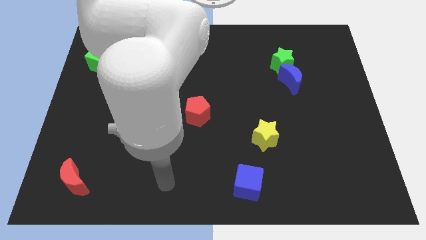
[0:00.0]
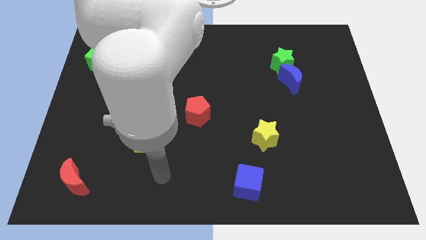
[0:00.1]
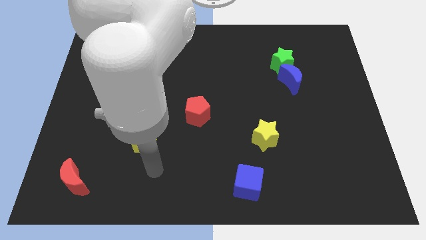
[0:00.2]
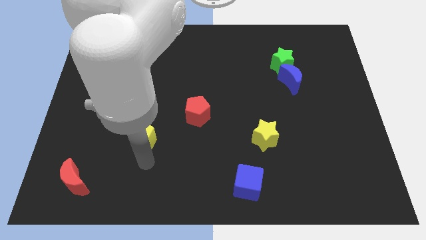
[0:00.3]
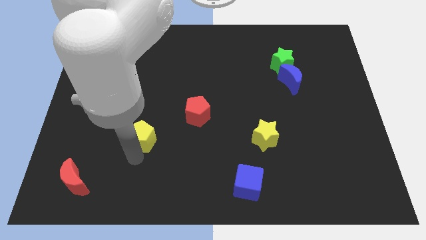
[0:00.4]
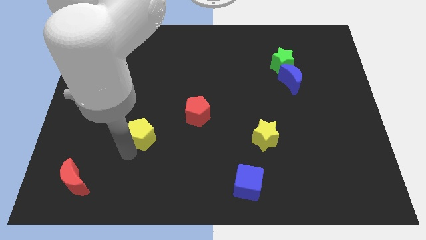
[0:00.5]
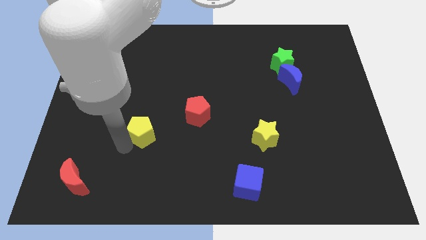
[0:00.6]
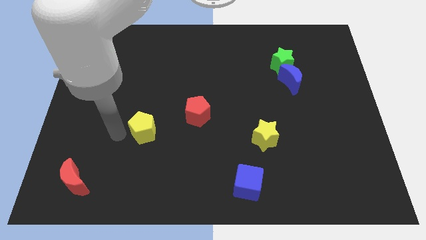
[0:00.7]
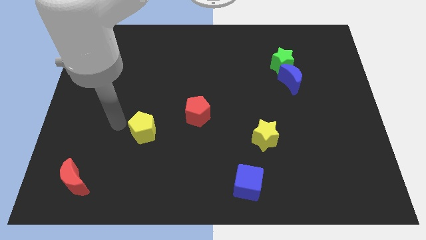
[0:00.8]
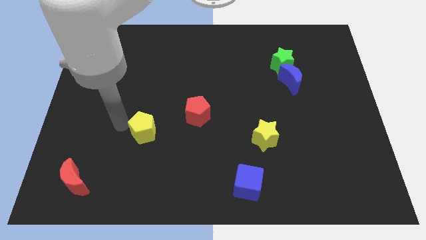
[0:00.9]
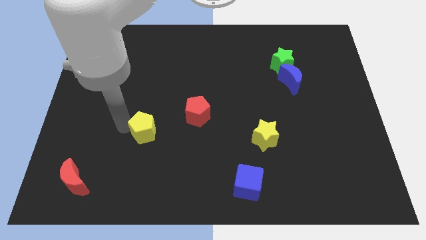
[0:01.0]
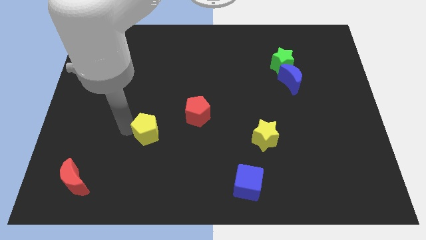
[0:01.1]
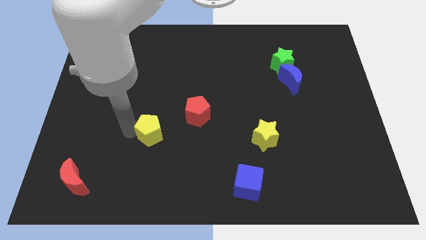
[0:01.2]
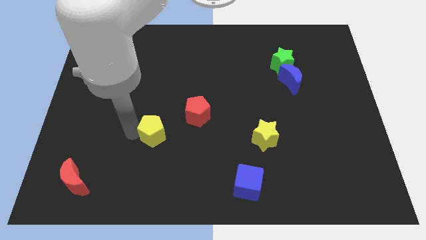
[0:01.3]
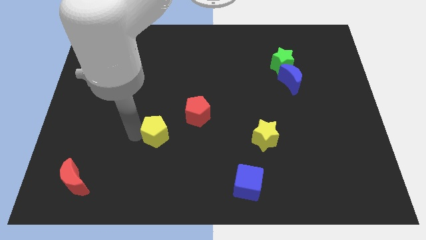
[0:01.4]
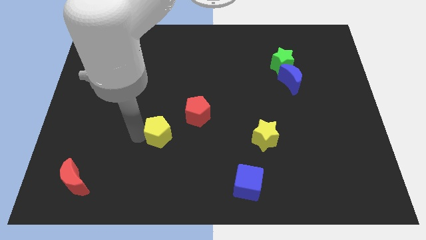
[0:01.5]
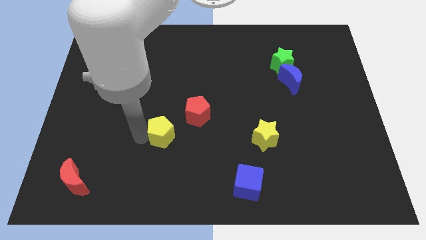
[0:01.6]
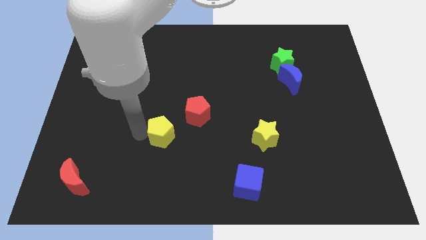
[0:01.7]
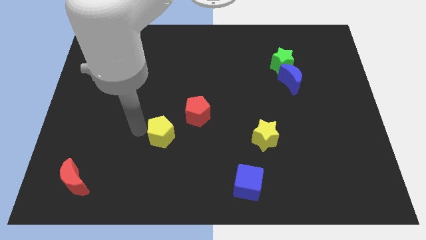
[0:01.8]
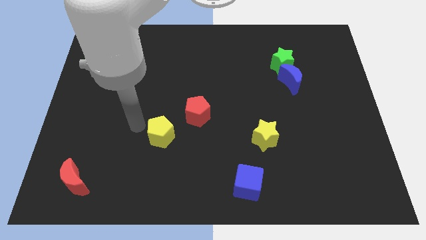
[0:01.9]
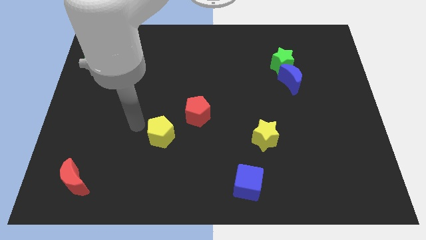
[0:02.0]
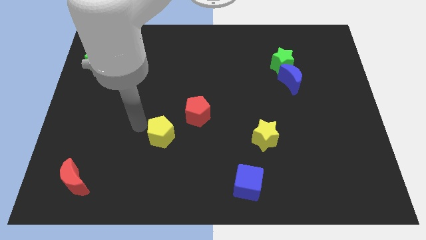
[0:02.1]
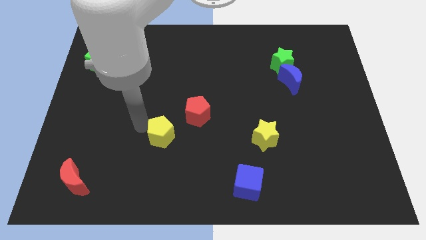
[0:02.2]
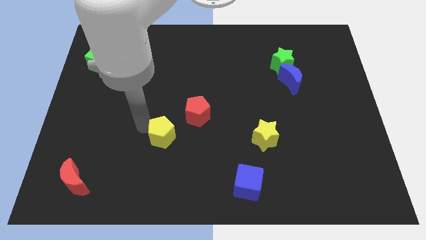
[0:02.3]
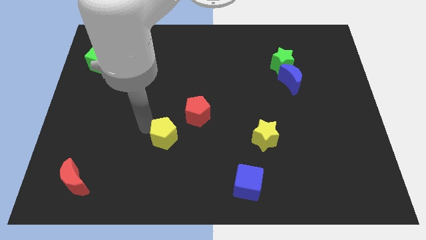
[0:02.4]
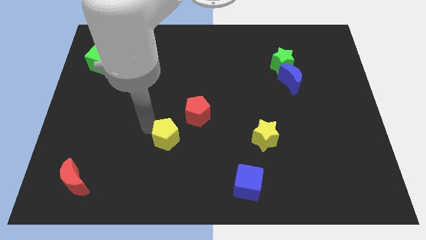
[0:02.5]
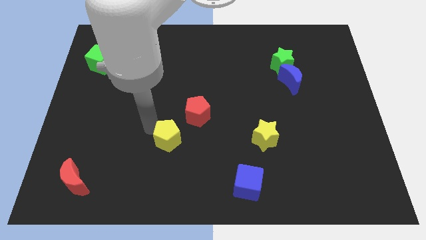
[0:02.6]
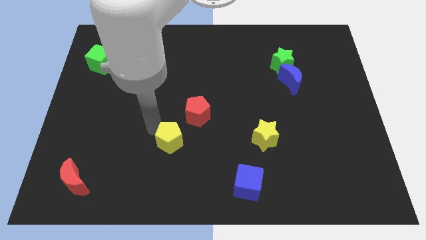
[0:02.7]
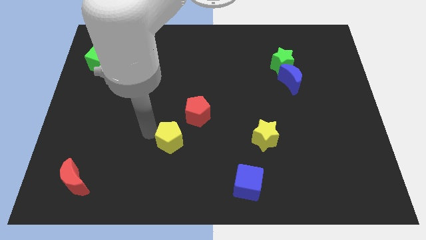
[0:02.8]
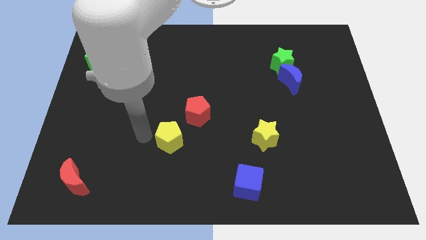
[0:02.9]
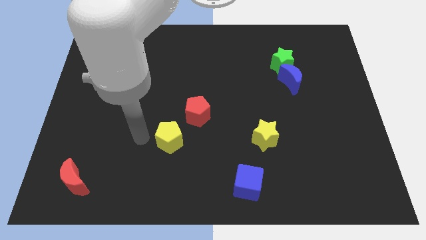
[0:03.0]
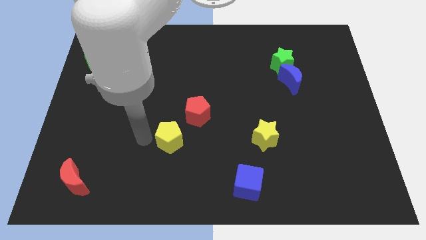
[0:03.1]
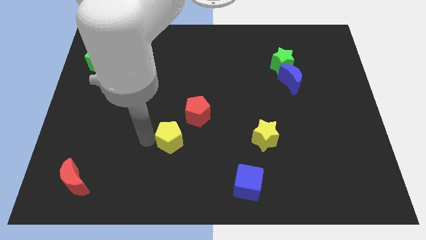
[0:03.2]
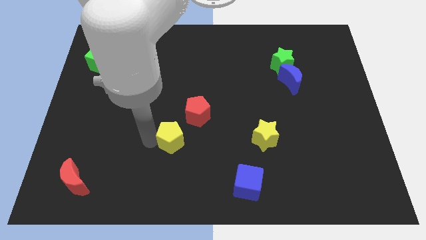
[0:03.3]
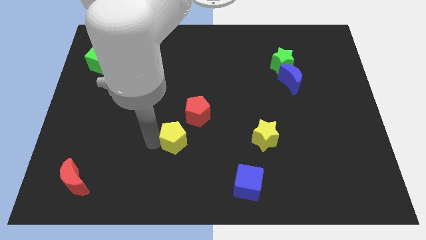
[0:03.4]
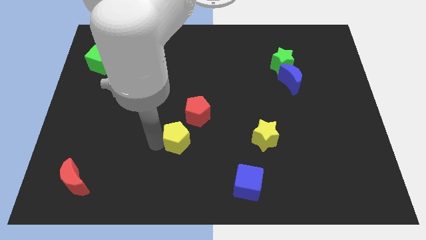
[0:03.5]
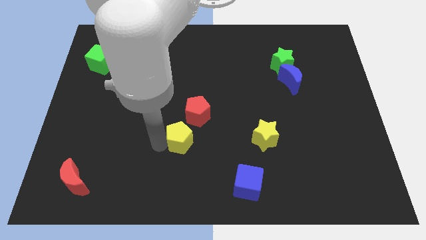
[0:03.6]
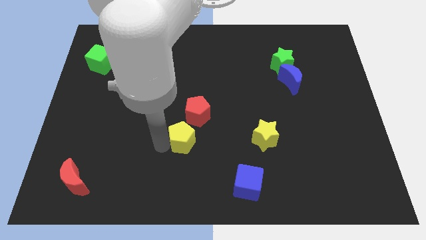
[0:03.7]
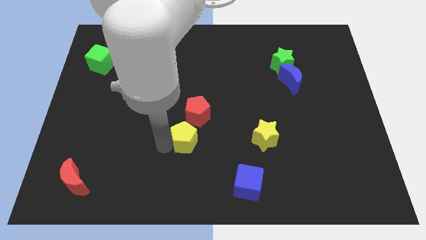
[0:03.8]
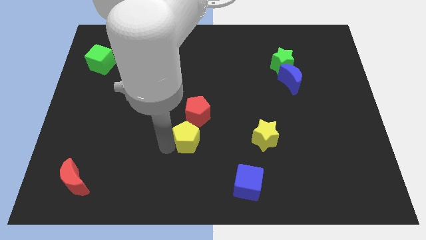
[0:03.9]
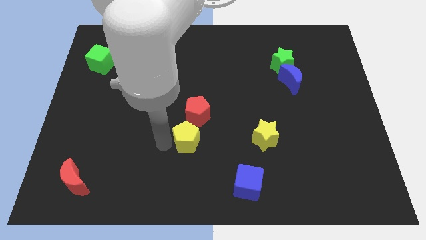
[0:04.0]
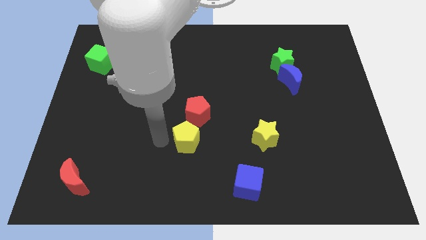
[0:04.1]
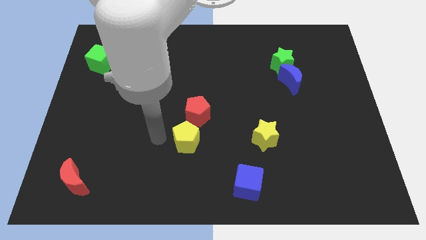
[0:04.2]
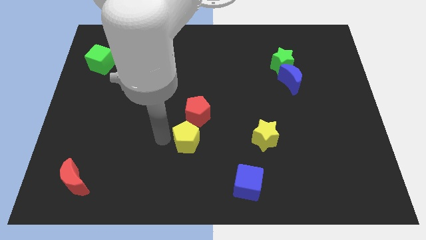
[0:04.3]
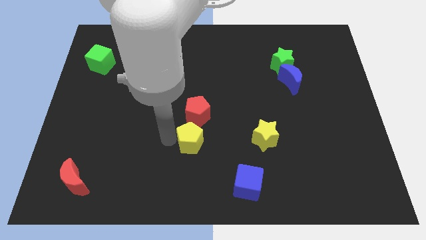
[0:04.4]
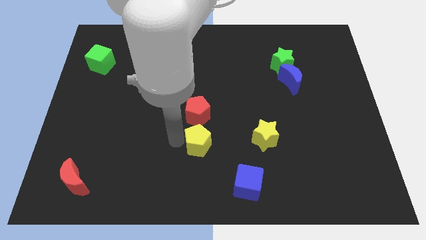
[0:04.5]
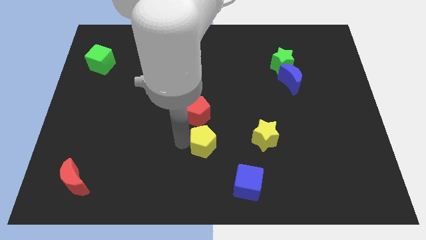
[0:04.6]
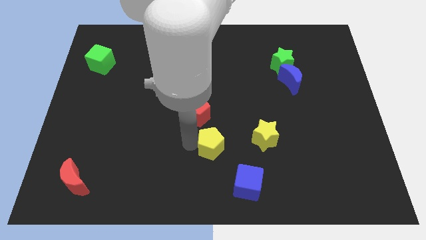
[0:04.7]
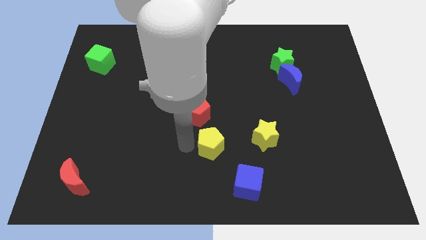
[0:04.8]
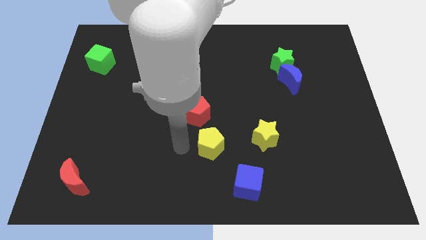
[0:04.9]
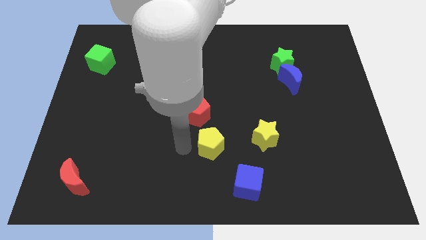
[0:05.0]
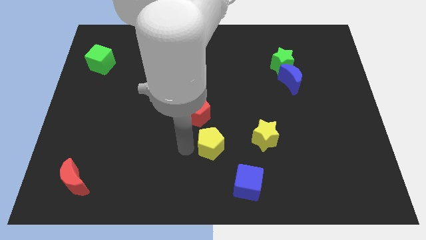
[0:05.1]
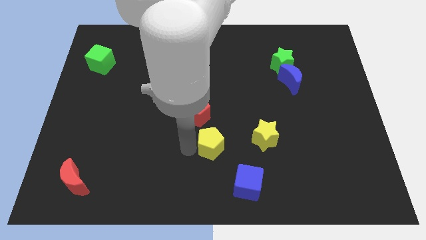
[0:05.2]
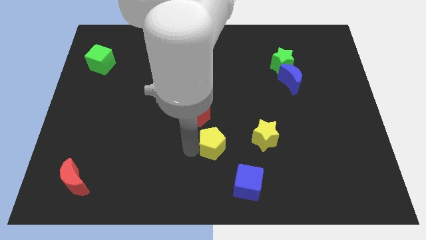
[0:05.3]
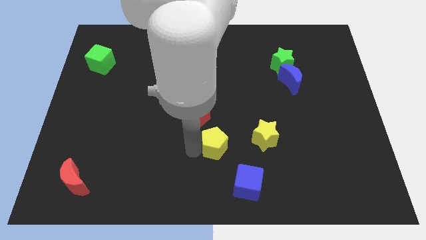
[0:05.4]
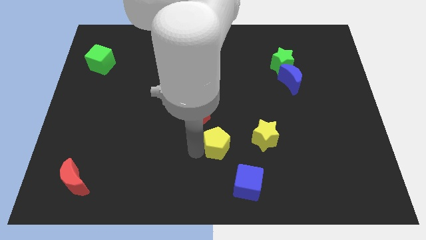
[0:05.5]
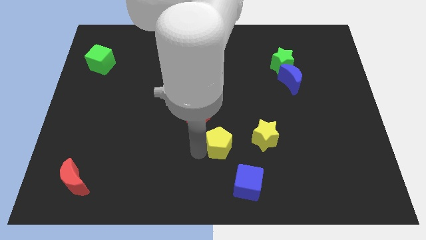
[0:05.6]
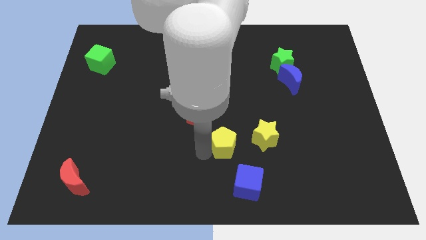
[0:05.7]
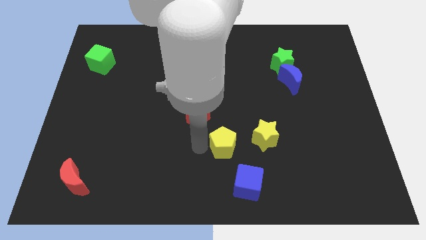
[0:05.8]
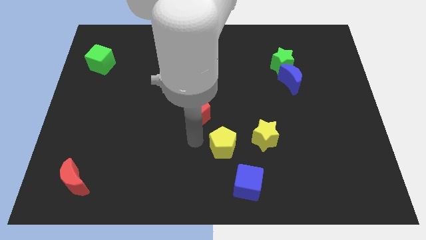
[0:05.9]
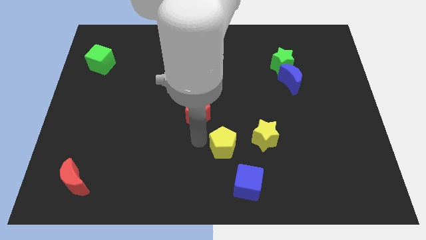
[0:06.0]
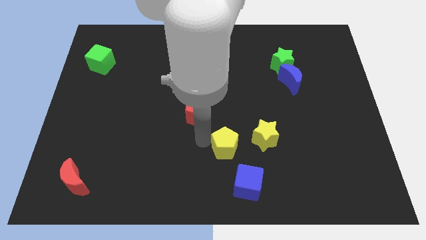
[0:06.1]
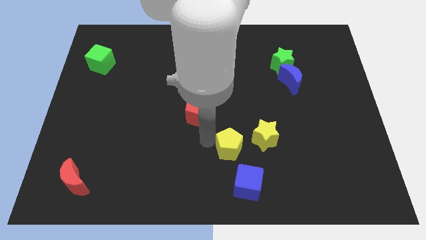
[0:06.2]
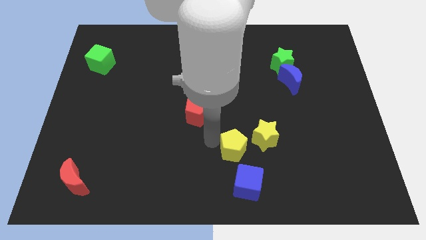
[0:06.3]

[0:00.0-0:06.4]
move the yellow pentagon to the right

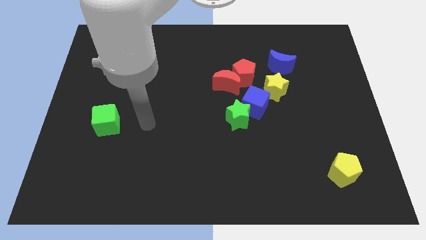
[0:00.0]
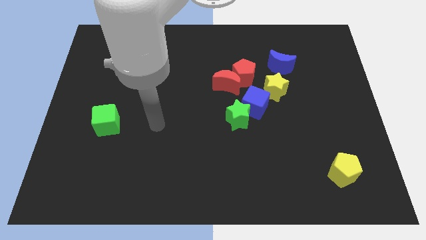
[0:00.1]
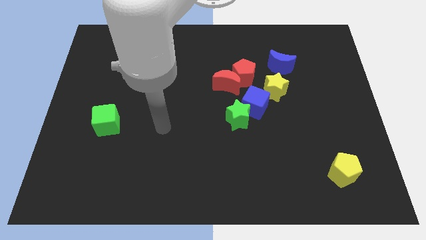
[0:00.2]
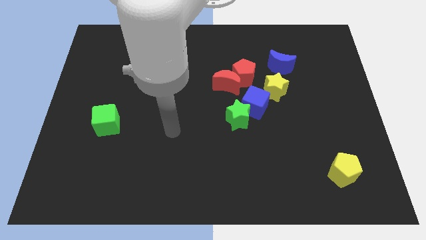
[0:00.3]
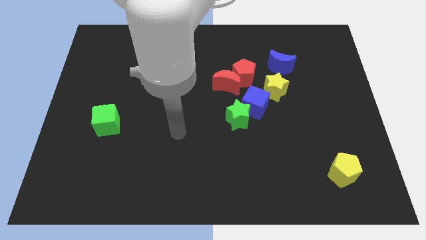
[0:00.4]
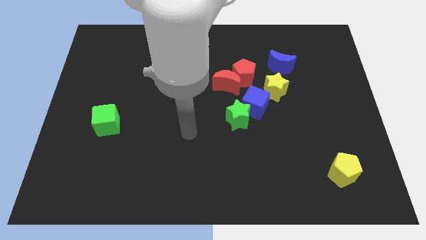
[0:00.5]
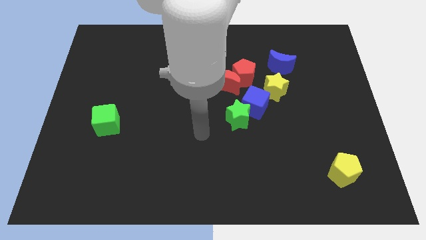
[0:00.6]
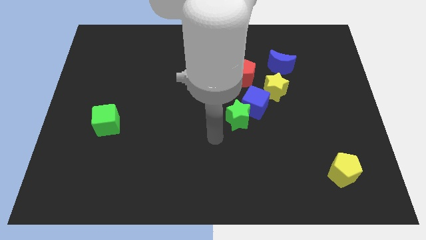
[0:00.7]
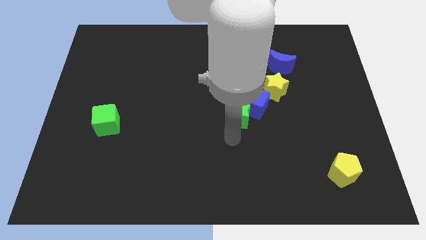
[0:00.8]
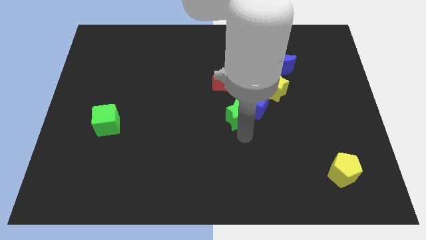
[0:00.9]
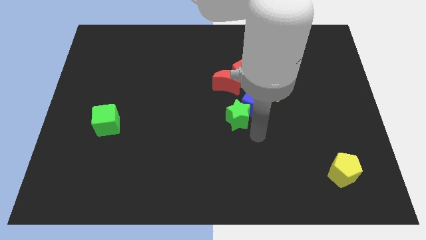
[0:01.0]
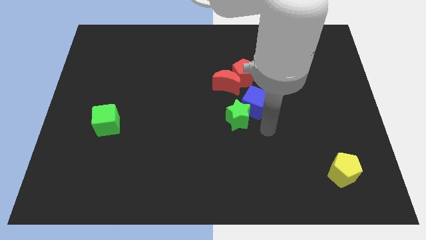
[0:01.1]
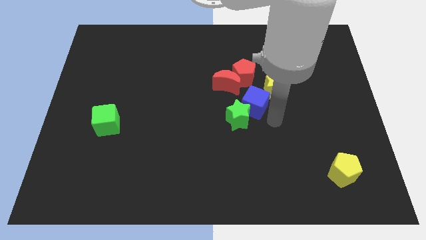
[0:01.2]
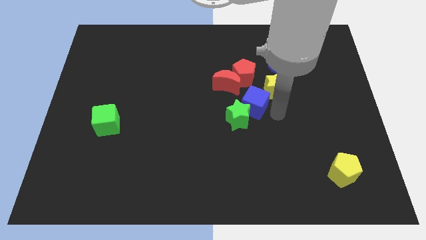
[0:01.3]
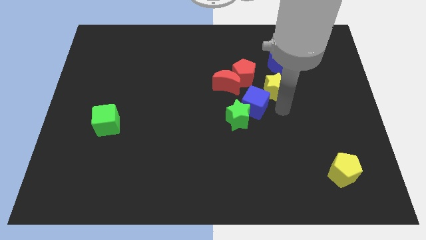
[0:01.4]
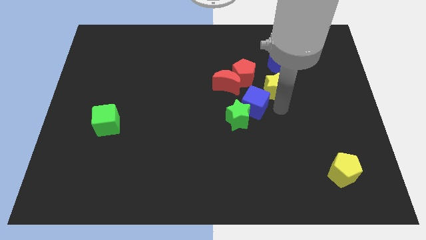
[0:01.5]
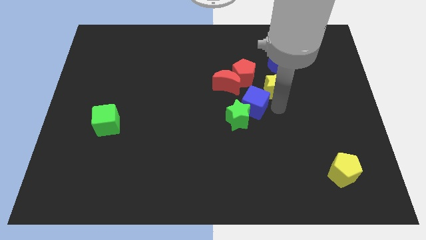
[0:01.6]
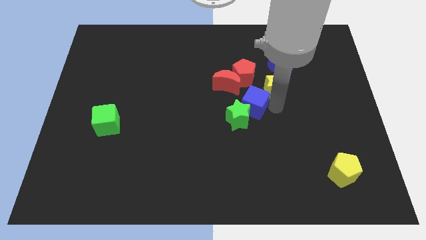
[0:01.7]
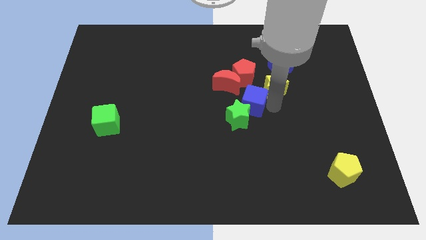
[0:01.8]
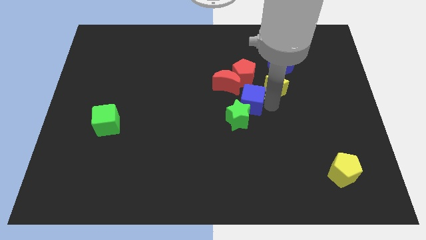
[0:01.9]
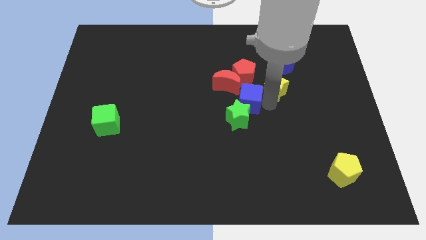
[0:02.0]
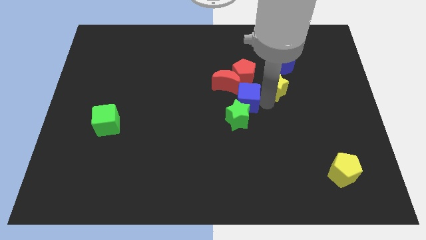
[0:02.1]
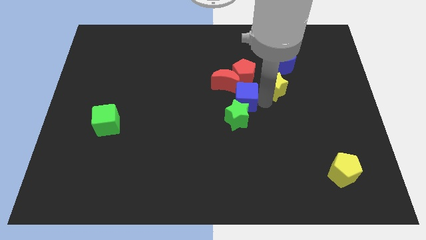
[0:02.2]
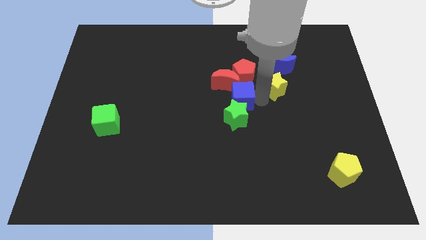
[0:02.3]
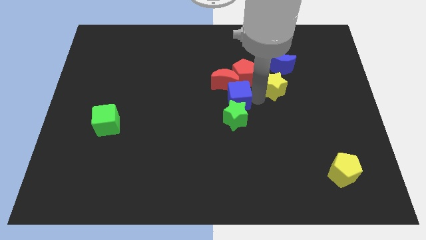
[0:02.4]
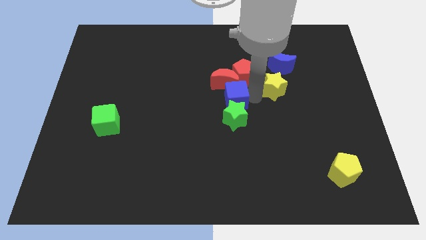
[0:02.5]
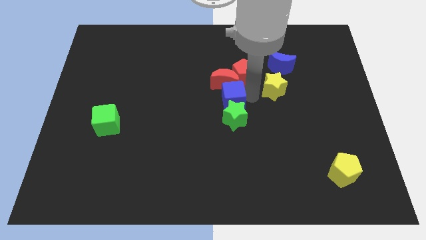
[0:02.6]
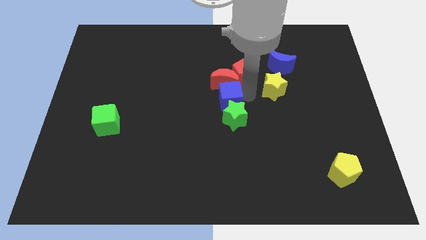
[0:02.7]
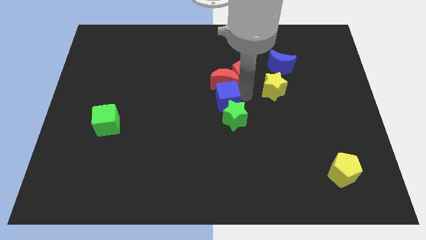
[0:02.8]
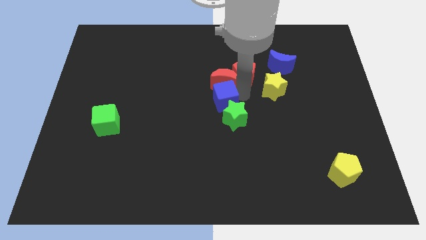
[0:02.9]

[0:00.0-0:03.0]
move the blue cube to the left somewhat
